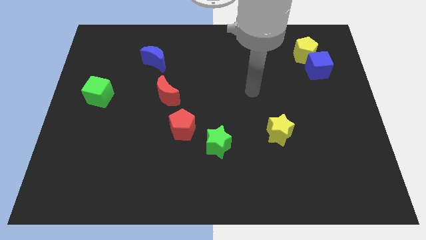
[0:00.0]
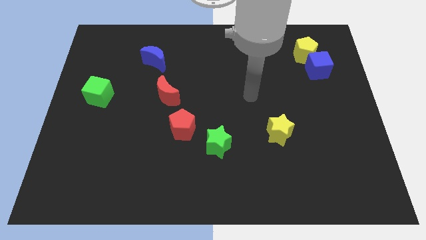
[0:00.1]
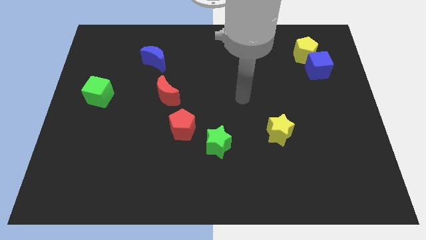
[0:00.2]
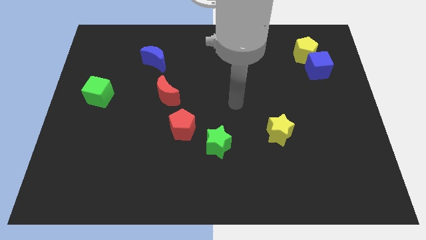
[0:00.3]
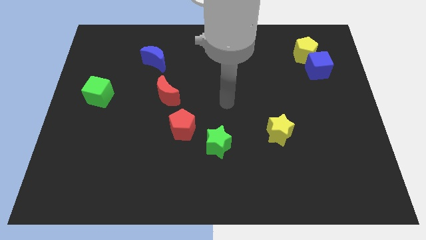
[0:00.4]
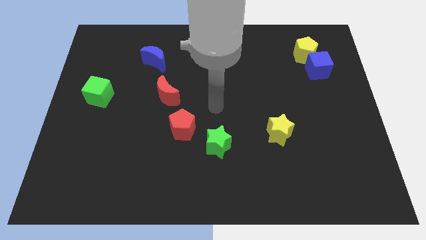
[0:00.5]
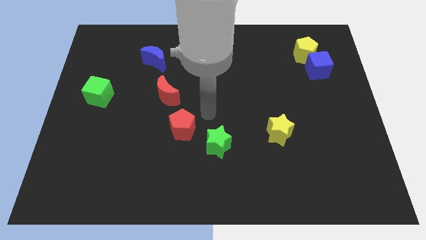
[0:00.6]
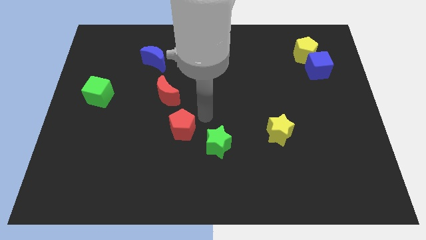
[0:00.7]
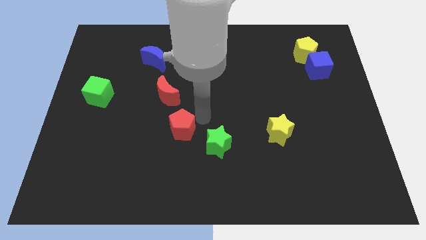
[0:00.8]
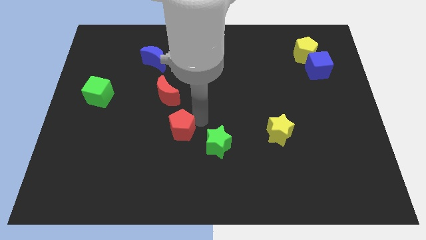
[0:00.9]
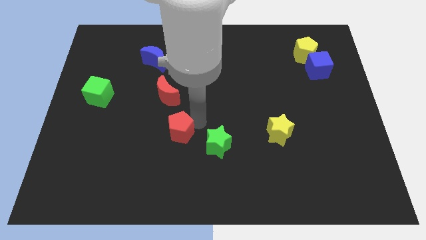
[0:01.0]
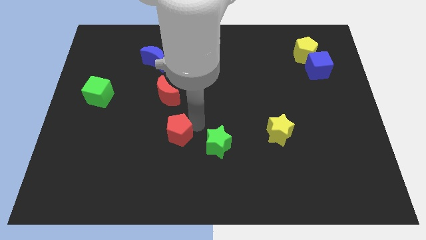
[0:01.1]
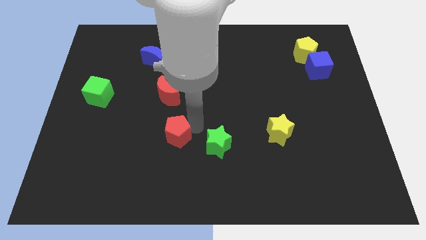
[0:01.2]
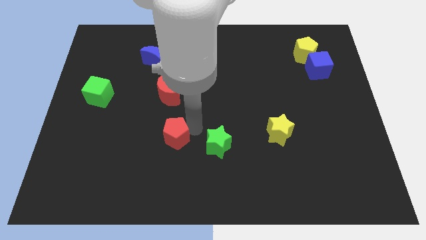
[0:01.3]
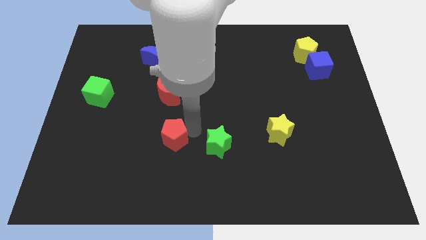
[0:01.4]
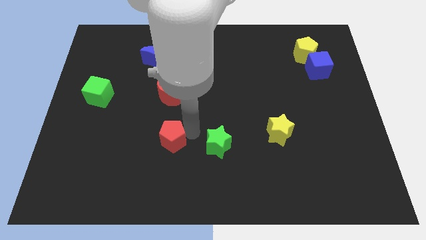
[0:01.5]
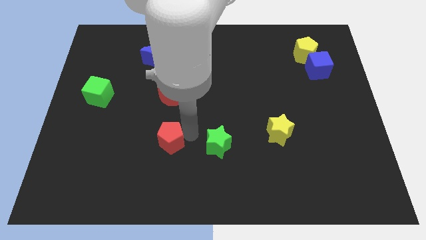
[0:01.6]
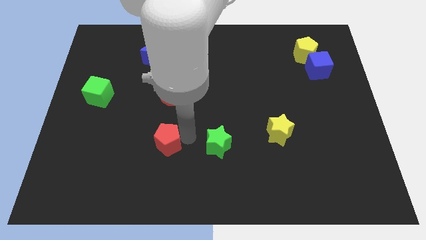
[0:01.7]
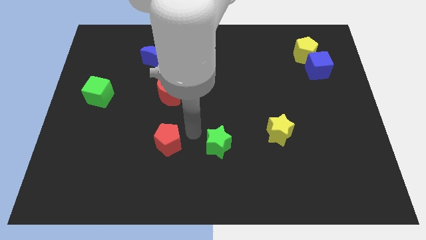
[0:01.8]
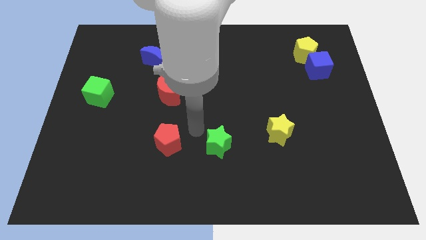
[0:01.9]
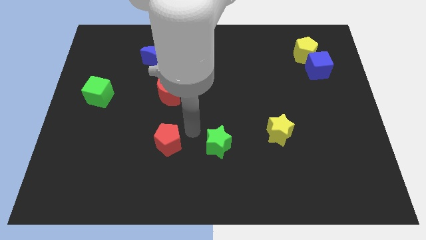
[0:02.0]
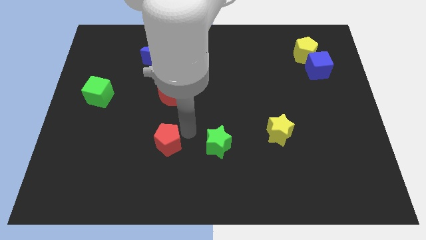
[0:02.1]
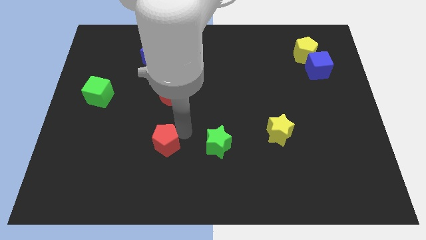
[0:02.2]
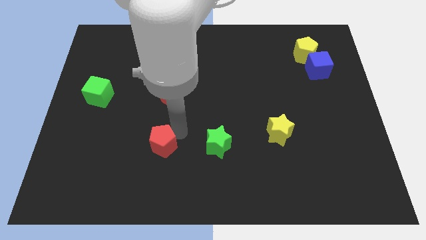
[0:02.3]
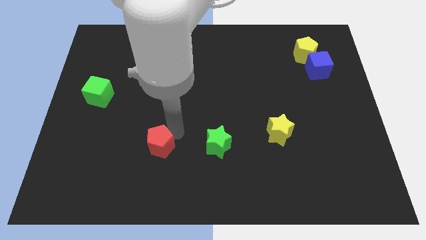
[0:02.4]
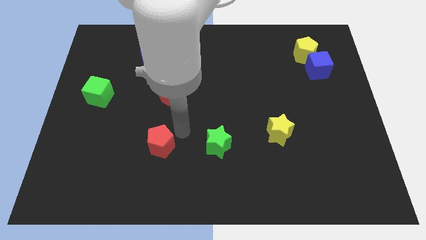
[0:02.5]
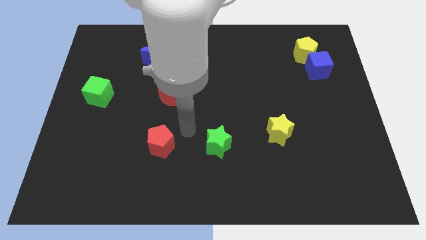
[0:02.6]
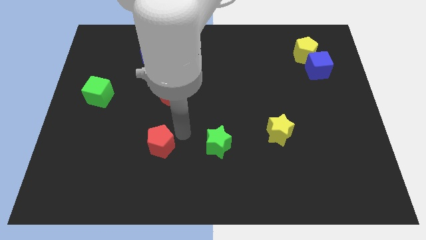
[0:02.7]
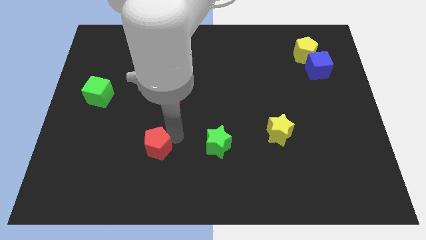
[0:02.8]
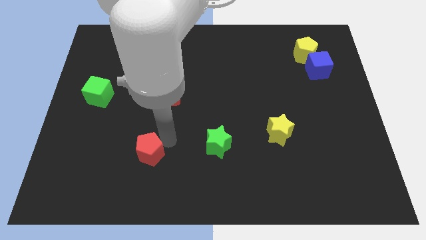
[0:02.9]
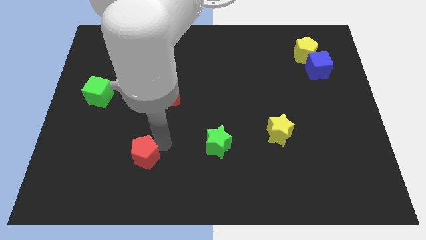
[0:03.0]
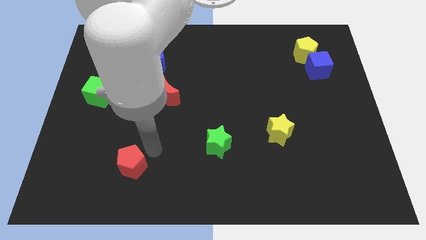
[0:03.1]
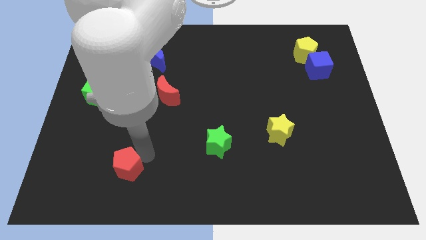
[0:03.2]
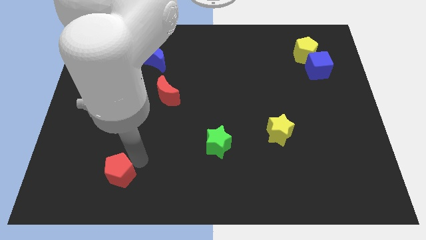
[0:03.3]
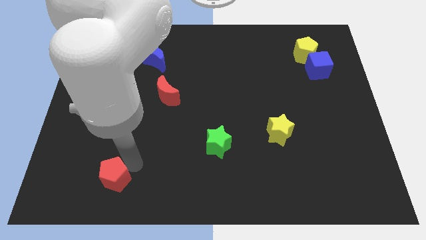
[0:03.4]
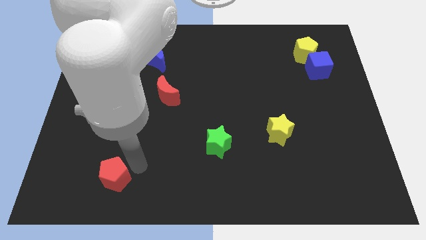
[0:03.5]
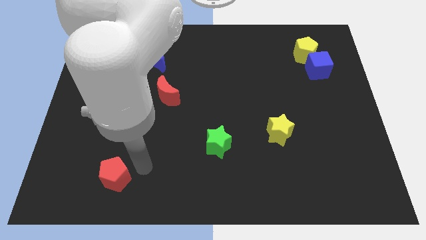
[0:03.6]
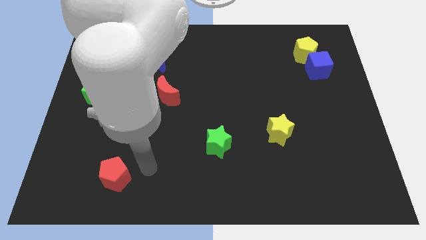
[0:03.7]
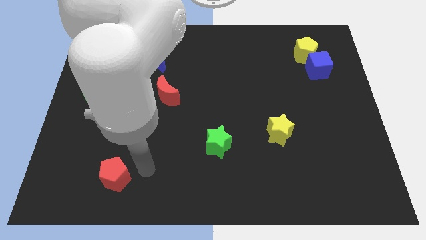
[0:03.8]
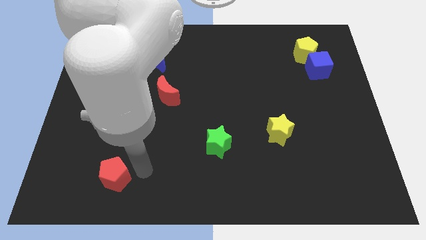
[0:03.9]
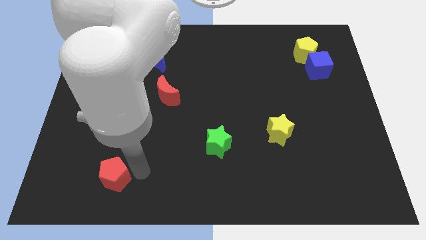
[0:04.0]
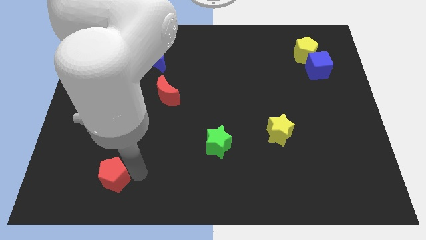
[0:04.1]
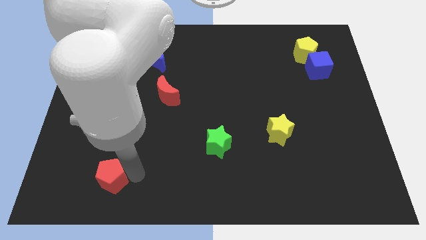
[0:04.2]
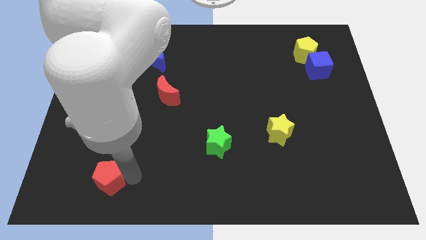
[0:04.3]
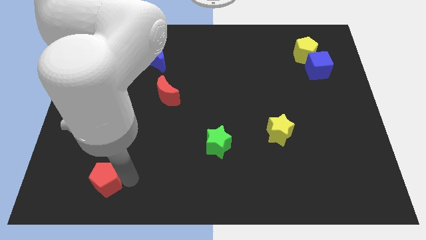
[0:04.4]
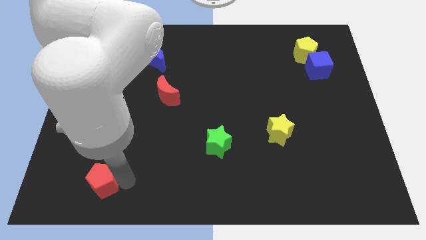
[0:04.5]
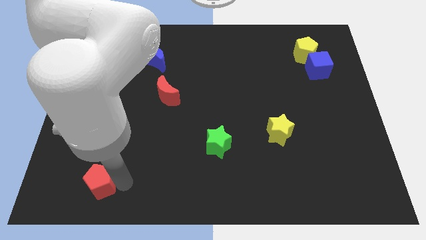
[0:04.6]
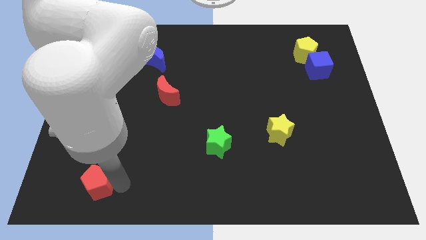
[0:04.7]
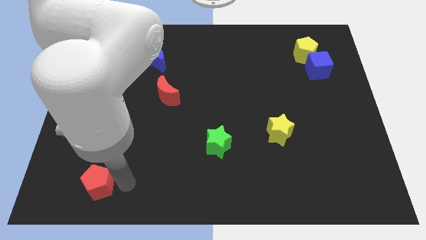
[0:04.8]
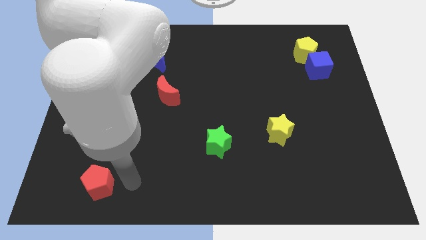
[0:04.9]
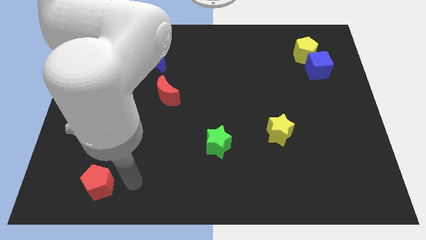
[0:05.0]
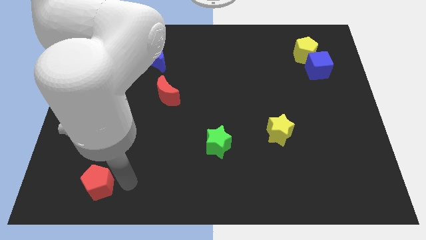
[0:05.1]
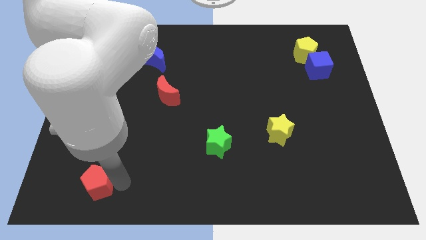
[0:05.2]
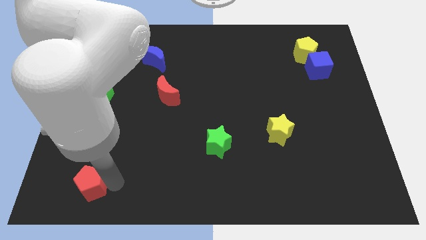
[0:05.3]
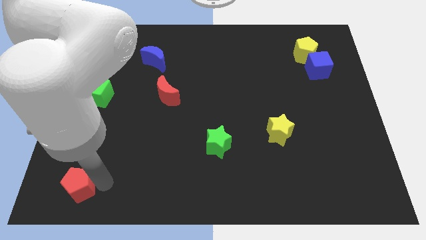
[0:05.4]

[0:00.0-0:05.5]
move the red pentagon to the lower left corner

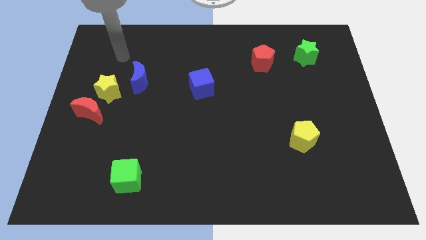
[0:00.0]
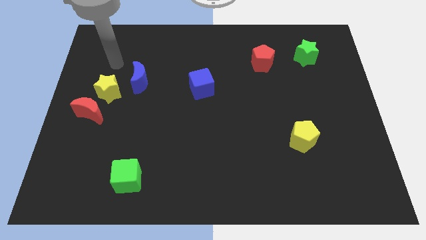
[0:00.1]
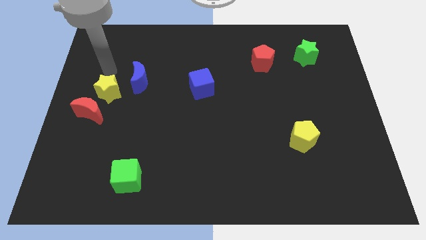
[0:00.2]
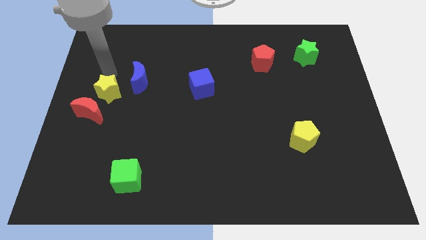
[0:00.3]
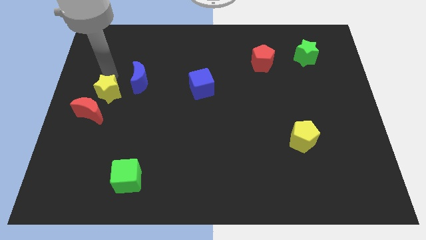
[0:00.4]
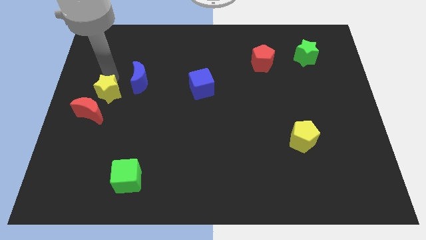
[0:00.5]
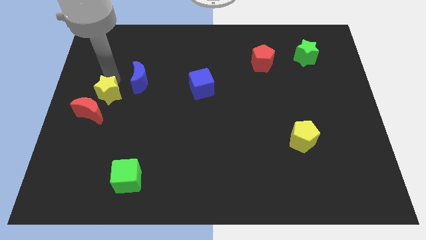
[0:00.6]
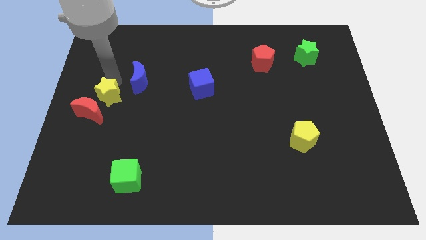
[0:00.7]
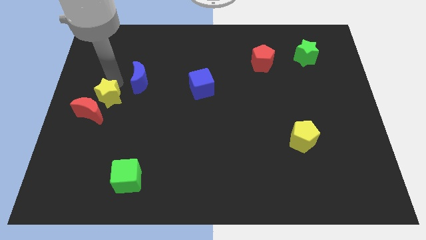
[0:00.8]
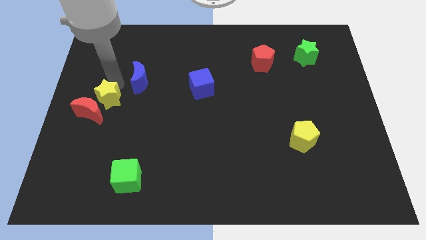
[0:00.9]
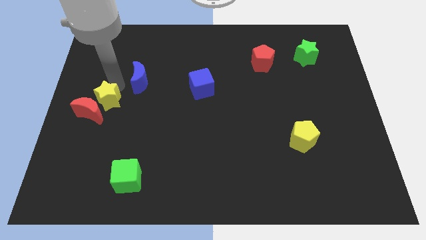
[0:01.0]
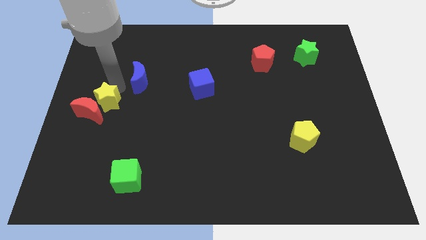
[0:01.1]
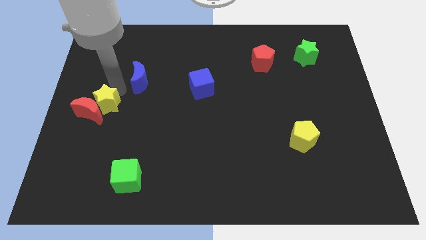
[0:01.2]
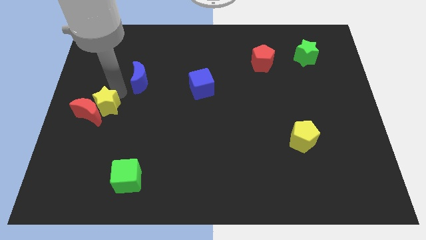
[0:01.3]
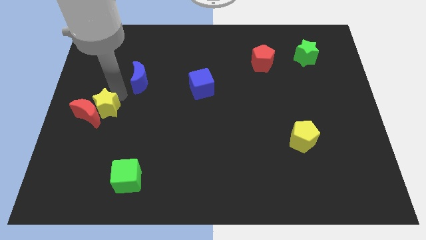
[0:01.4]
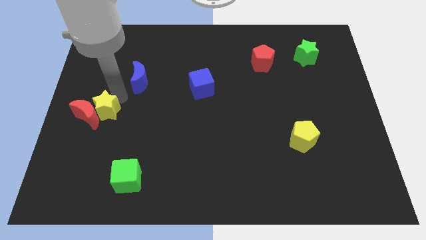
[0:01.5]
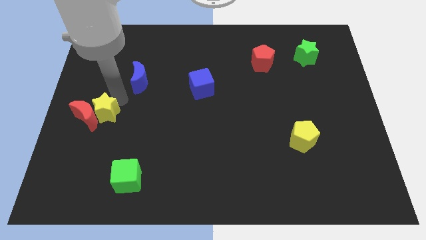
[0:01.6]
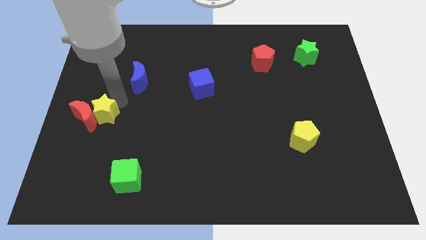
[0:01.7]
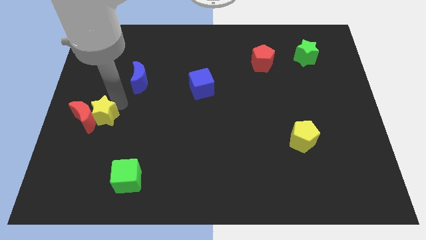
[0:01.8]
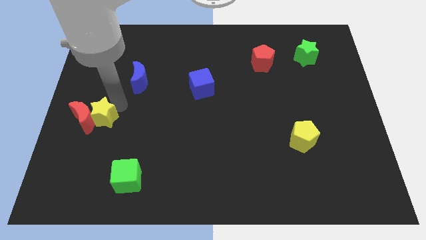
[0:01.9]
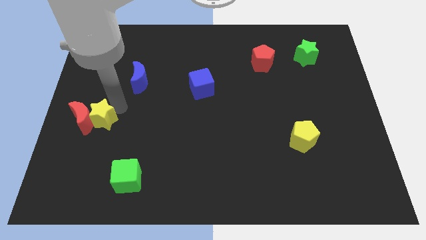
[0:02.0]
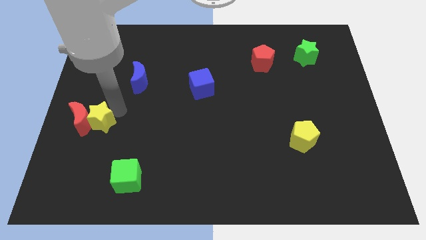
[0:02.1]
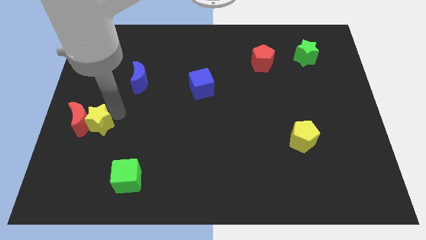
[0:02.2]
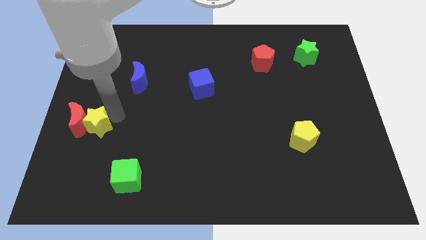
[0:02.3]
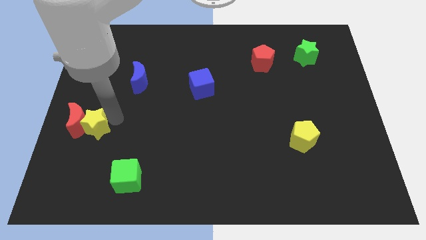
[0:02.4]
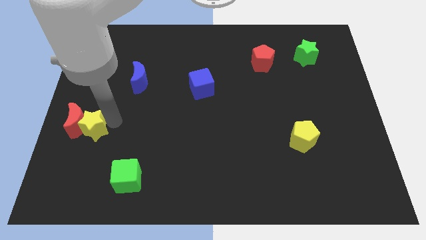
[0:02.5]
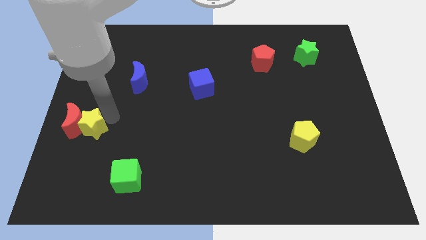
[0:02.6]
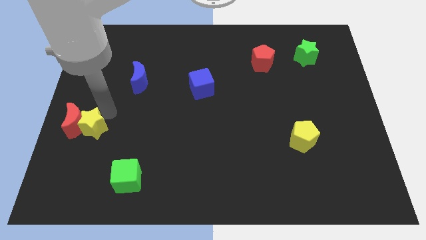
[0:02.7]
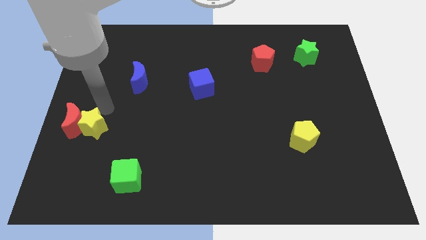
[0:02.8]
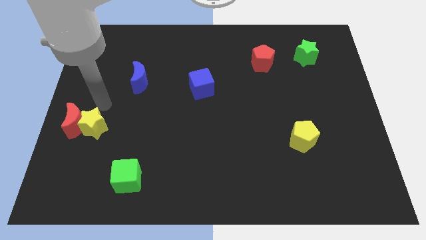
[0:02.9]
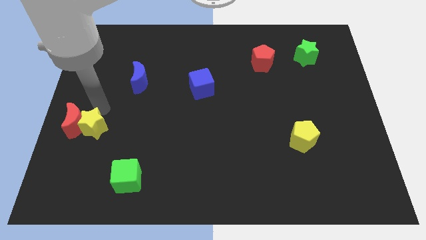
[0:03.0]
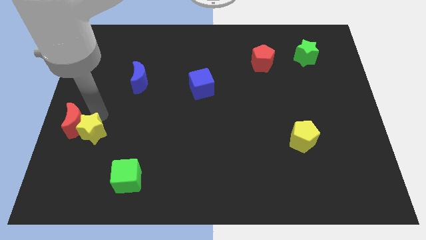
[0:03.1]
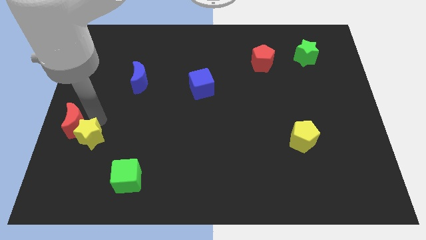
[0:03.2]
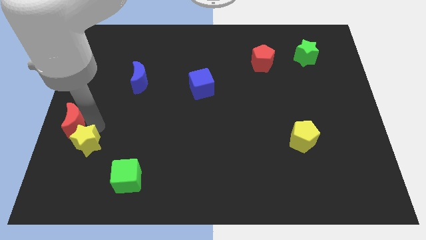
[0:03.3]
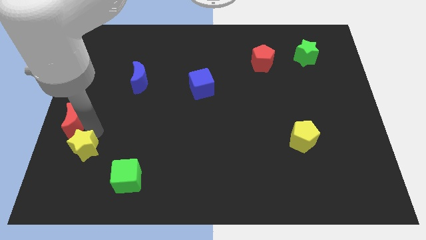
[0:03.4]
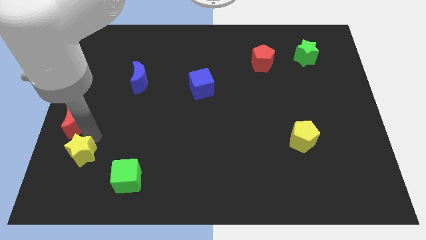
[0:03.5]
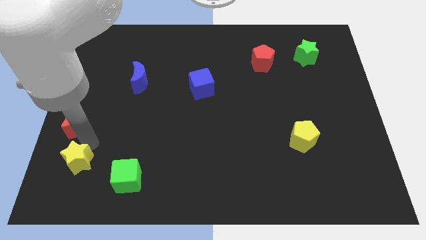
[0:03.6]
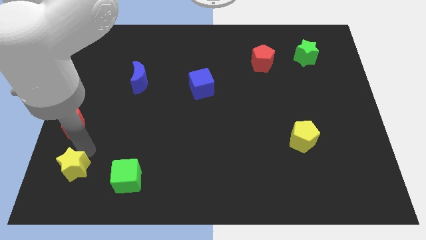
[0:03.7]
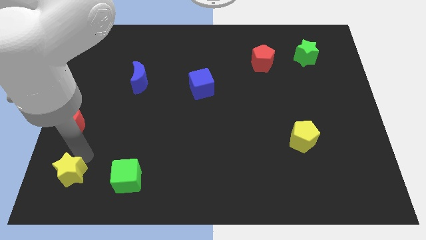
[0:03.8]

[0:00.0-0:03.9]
put the yellow star to the bottom left corner
